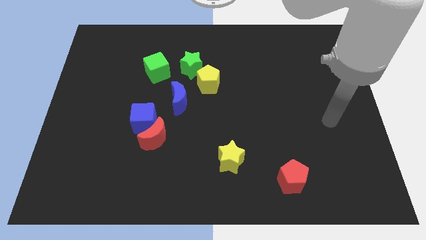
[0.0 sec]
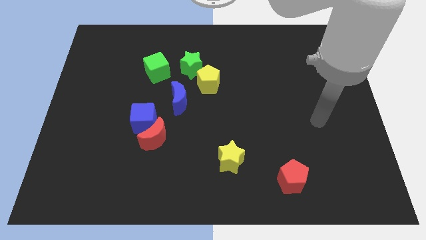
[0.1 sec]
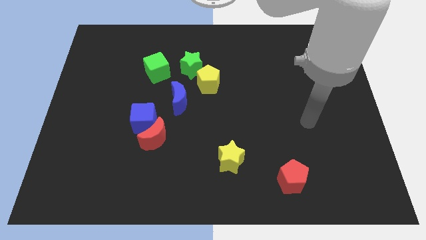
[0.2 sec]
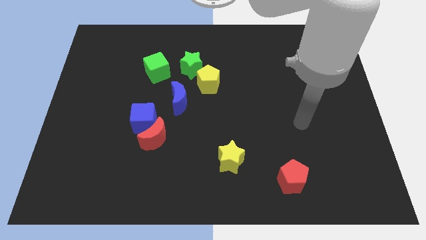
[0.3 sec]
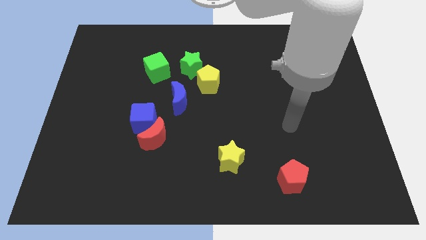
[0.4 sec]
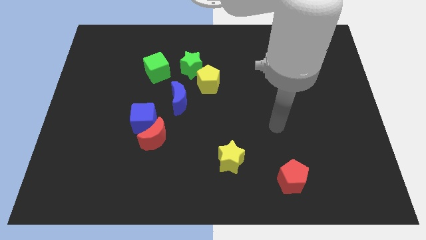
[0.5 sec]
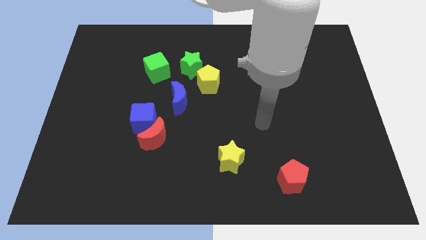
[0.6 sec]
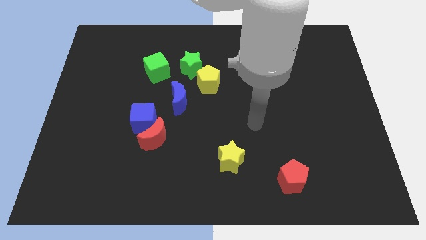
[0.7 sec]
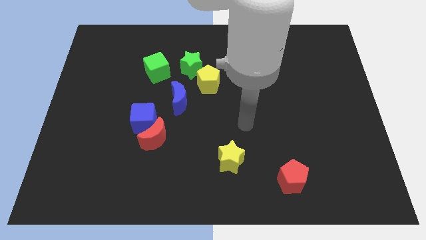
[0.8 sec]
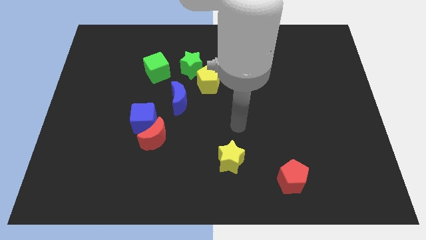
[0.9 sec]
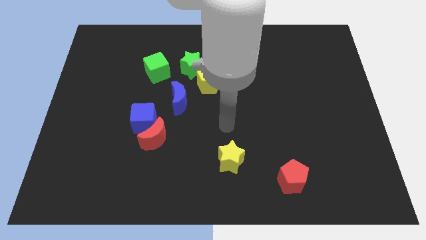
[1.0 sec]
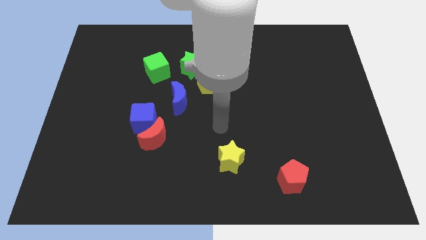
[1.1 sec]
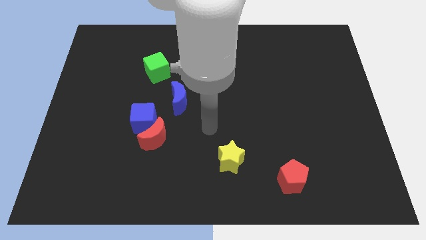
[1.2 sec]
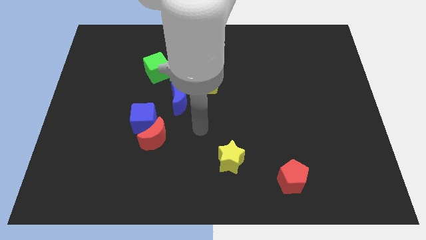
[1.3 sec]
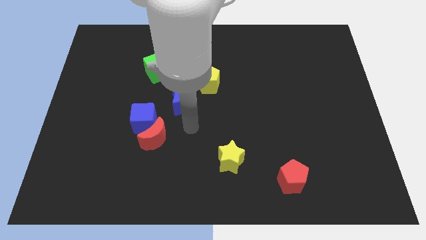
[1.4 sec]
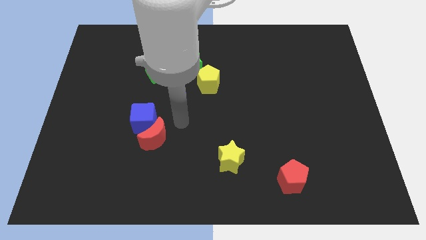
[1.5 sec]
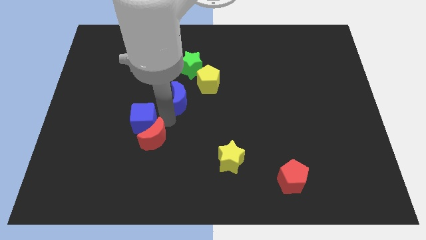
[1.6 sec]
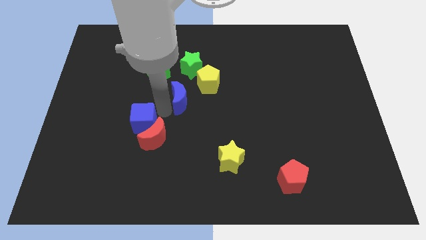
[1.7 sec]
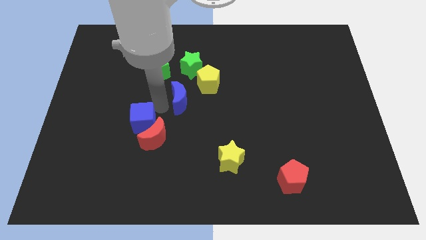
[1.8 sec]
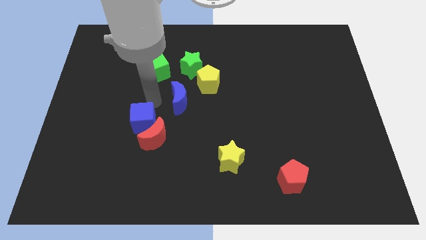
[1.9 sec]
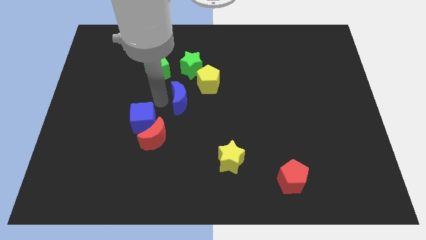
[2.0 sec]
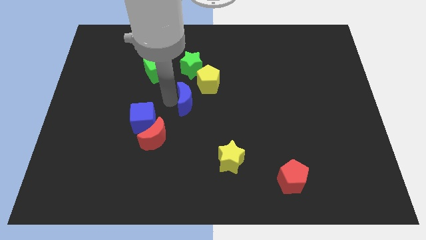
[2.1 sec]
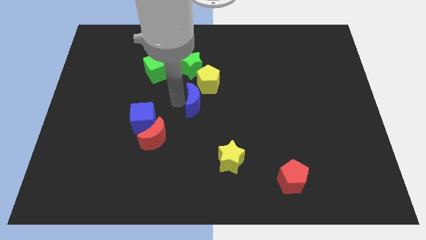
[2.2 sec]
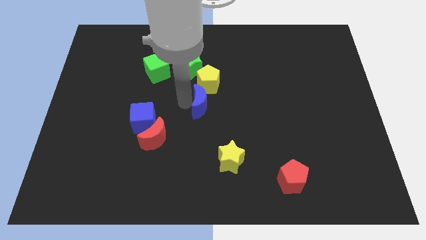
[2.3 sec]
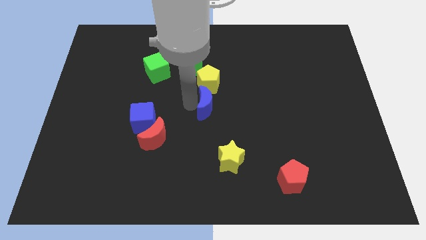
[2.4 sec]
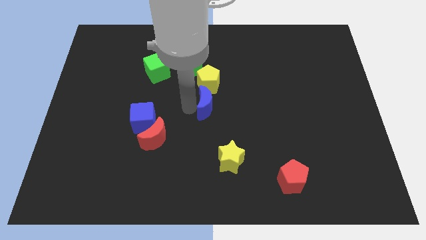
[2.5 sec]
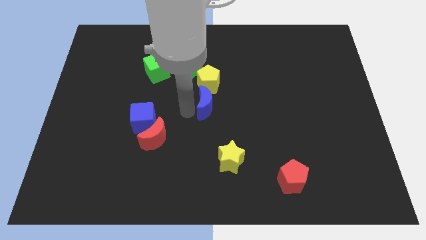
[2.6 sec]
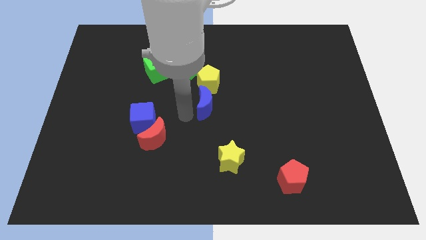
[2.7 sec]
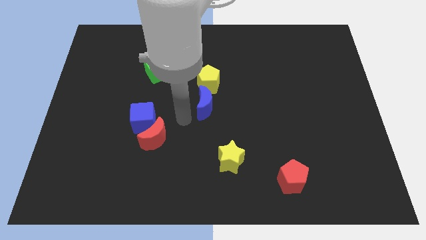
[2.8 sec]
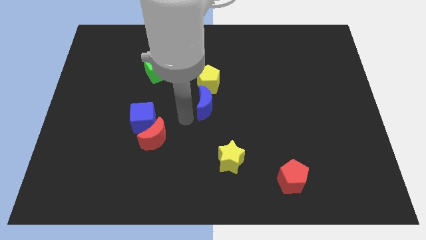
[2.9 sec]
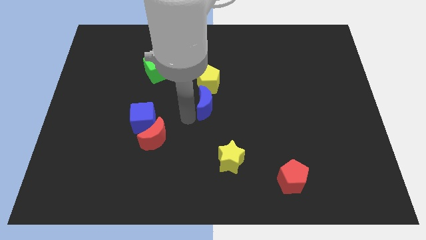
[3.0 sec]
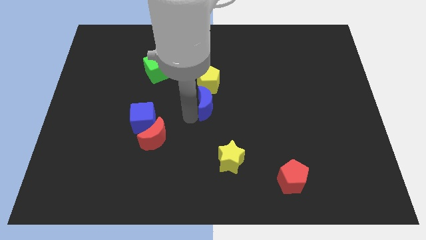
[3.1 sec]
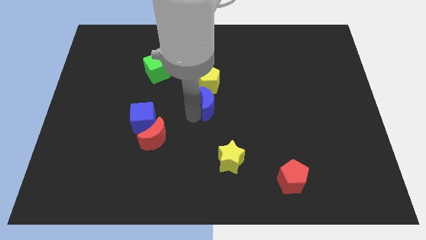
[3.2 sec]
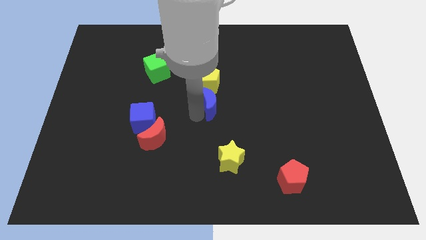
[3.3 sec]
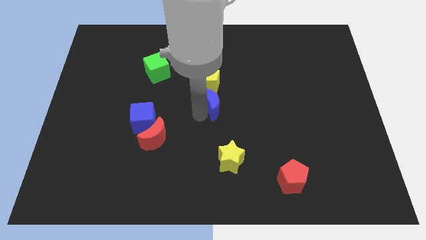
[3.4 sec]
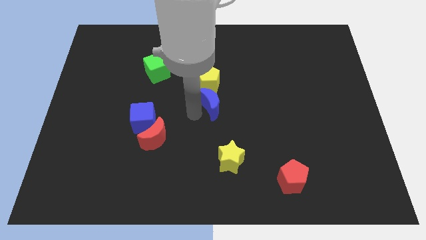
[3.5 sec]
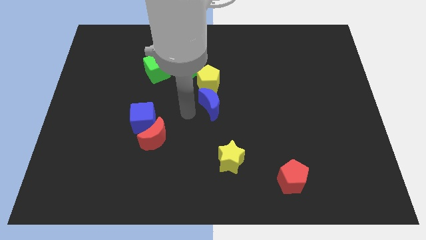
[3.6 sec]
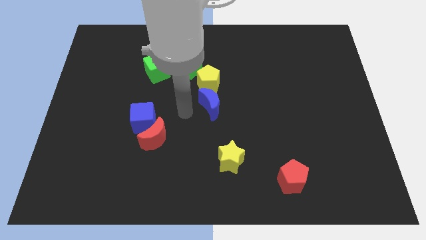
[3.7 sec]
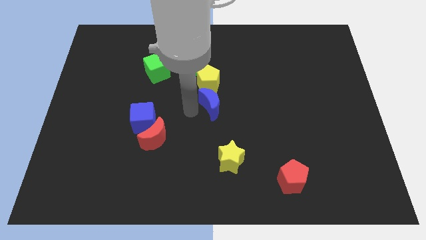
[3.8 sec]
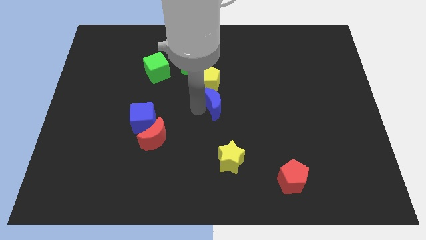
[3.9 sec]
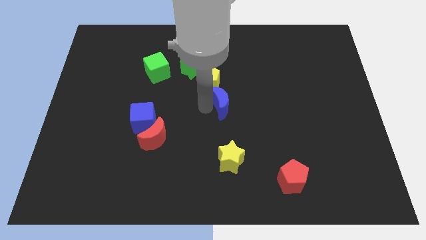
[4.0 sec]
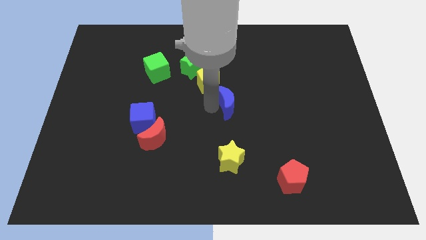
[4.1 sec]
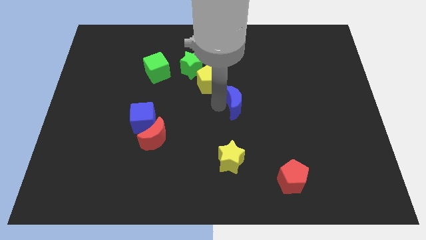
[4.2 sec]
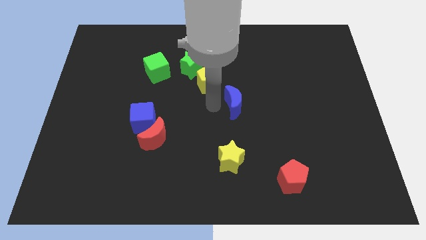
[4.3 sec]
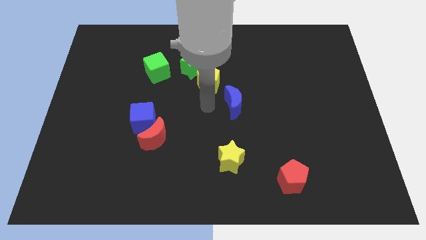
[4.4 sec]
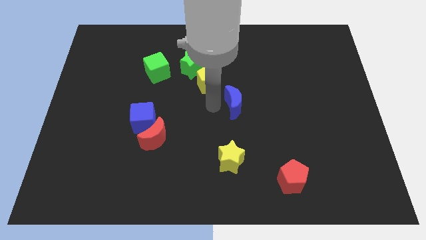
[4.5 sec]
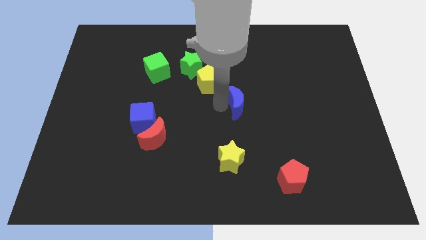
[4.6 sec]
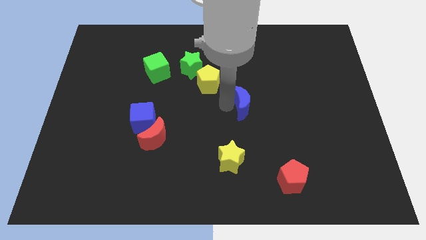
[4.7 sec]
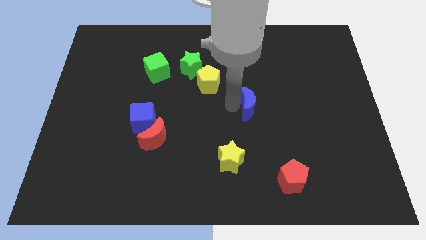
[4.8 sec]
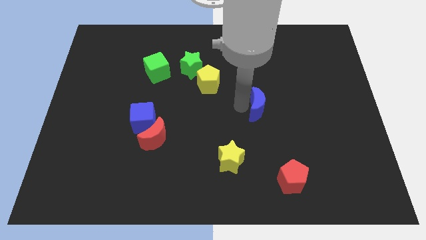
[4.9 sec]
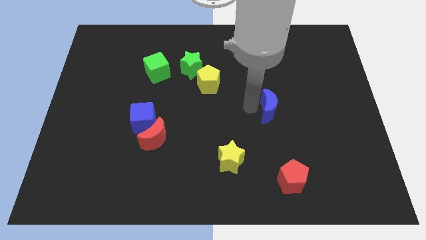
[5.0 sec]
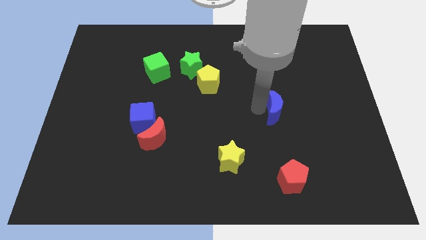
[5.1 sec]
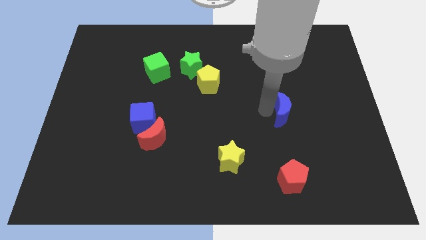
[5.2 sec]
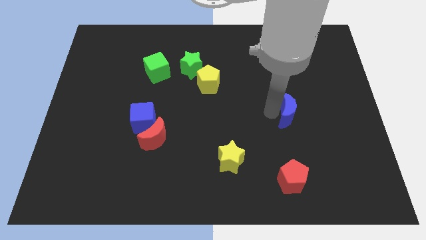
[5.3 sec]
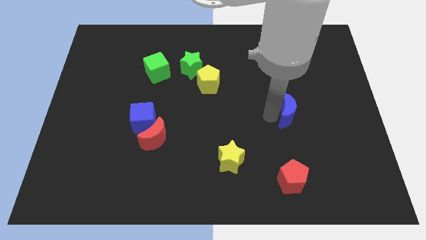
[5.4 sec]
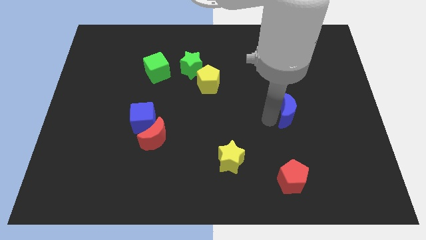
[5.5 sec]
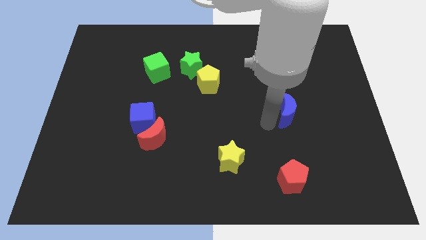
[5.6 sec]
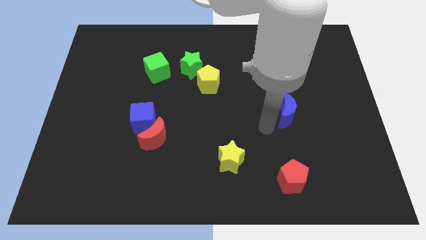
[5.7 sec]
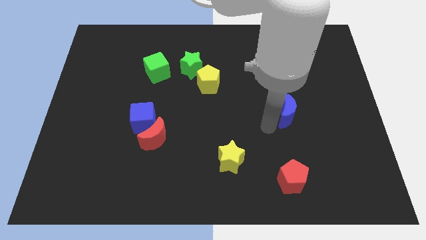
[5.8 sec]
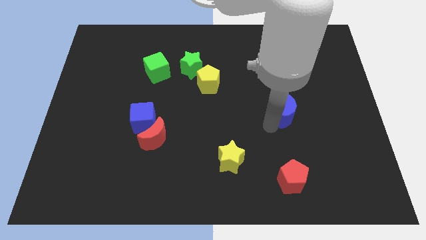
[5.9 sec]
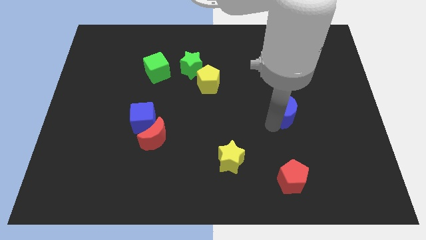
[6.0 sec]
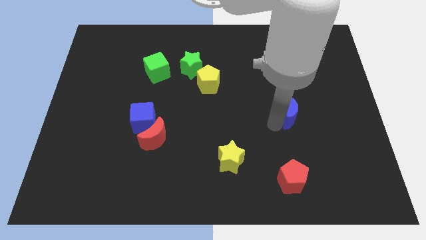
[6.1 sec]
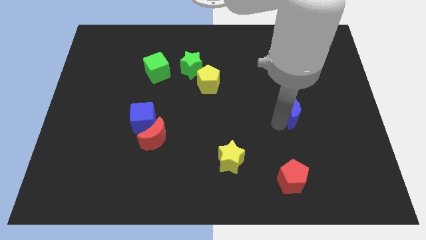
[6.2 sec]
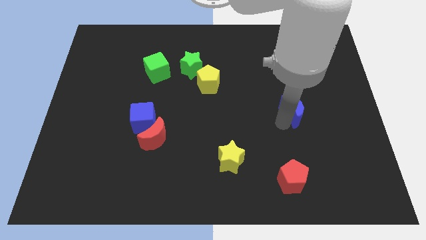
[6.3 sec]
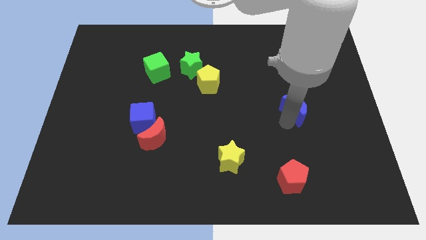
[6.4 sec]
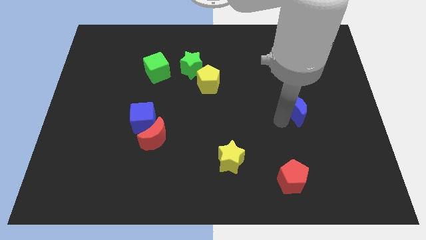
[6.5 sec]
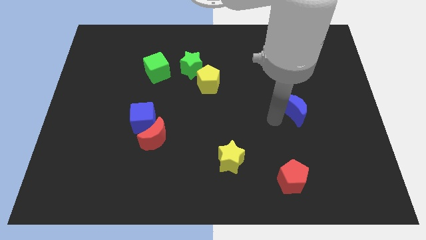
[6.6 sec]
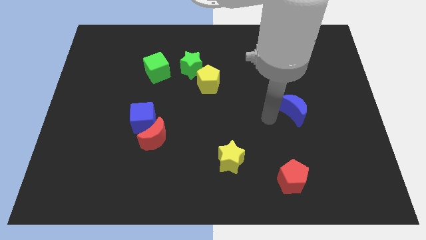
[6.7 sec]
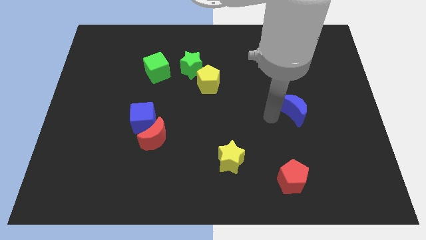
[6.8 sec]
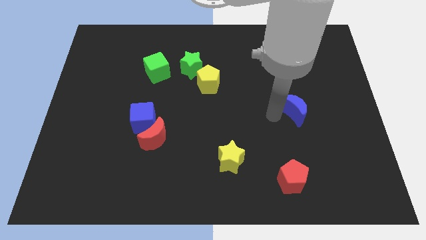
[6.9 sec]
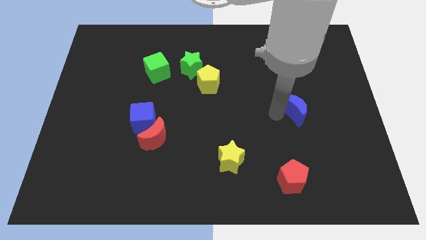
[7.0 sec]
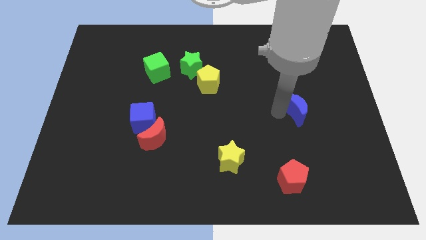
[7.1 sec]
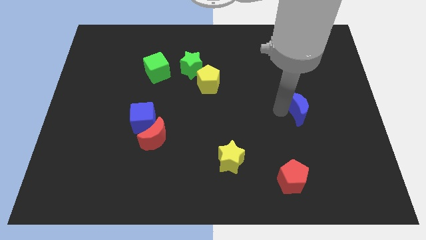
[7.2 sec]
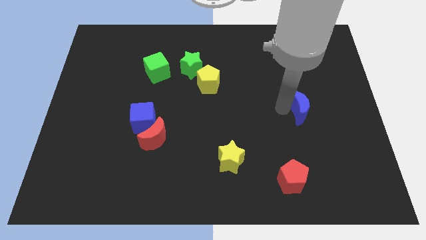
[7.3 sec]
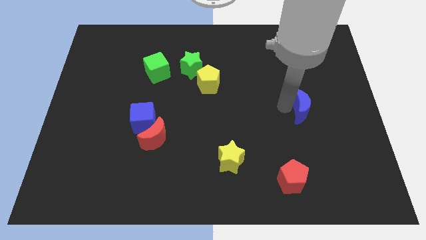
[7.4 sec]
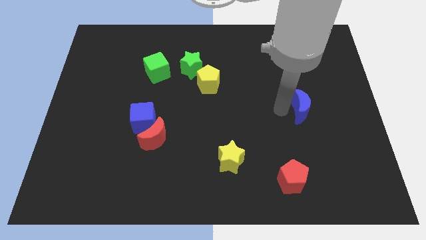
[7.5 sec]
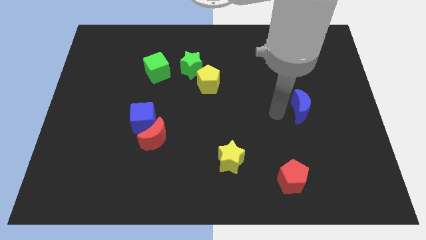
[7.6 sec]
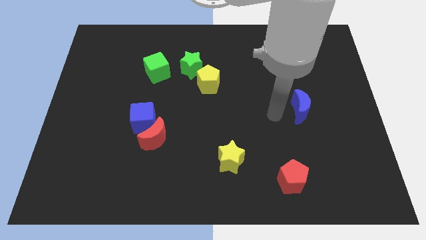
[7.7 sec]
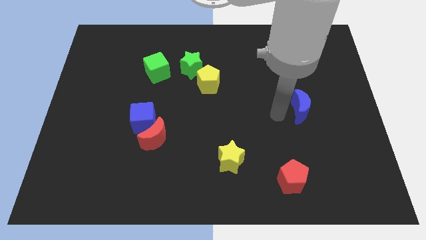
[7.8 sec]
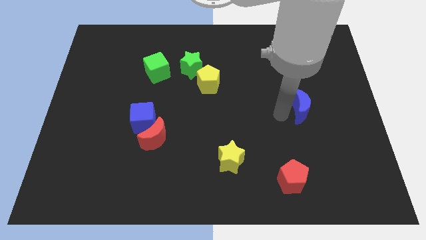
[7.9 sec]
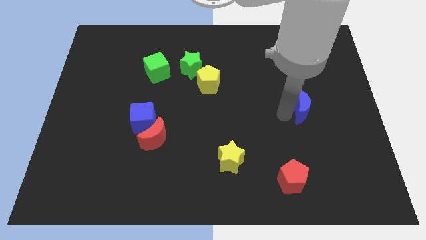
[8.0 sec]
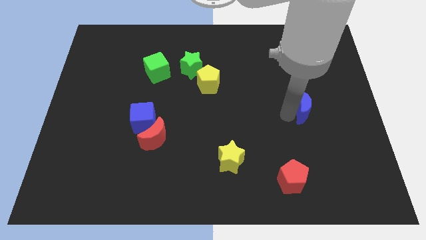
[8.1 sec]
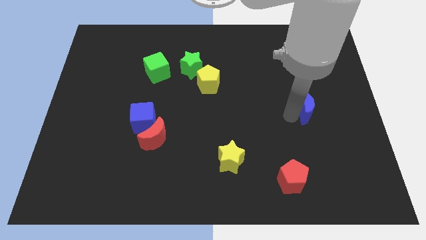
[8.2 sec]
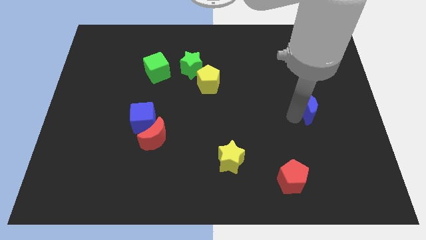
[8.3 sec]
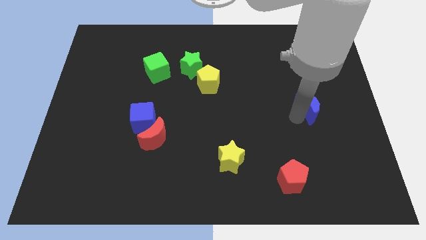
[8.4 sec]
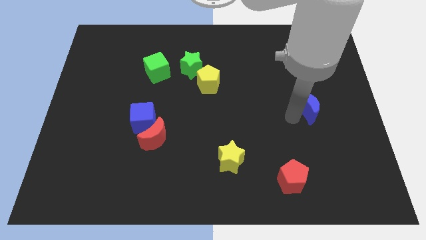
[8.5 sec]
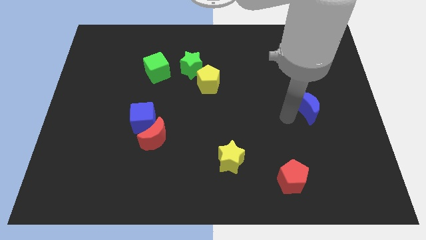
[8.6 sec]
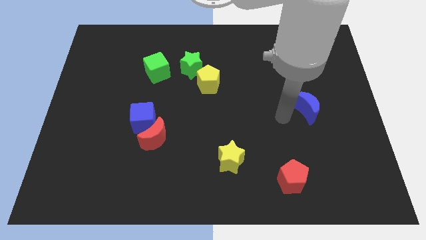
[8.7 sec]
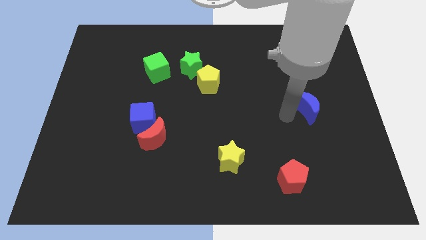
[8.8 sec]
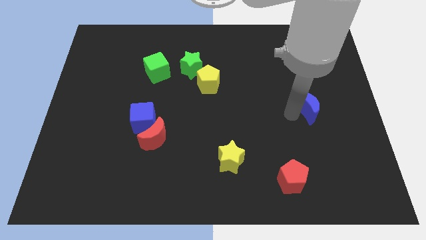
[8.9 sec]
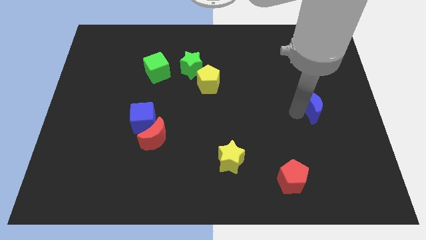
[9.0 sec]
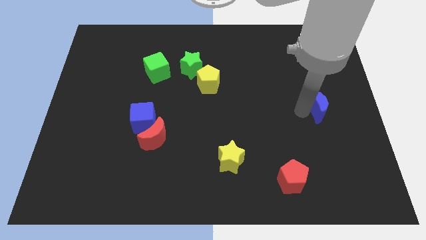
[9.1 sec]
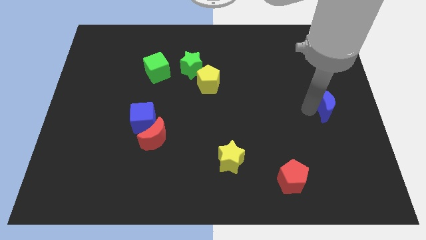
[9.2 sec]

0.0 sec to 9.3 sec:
push the blue moon to the center right
